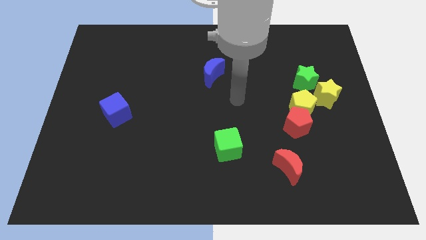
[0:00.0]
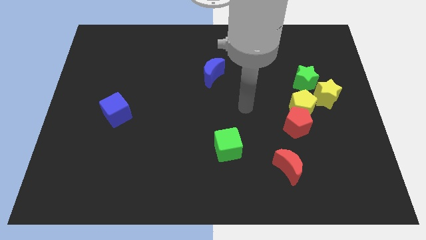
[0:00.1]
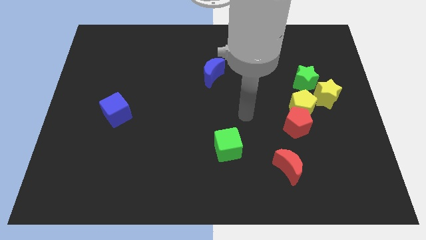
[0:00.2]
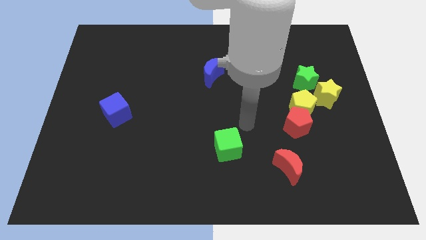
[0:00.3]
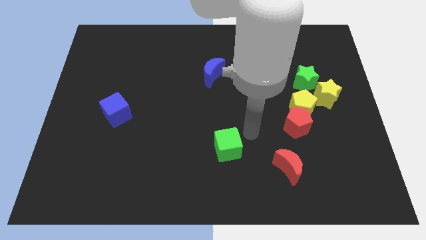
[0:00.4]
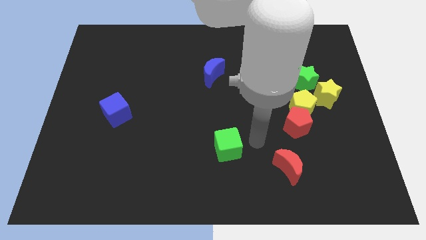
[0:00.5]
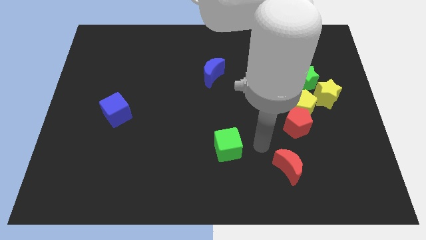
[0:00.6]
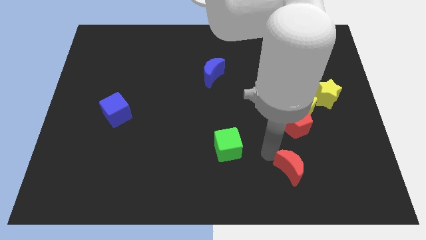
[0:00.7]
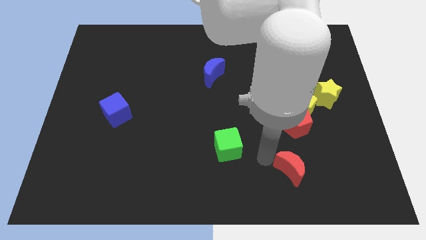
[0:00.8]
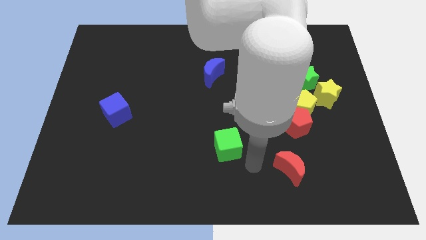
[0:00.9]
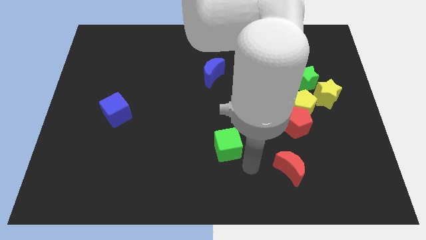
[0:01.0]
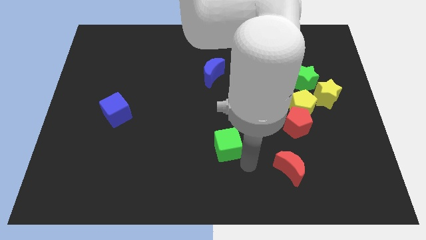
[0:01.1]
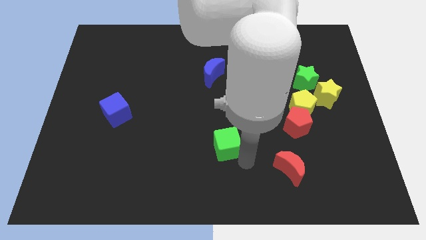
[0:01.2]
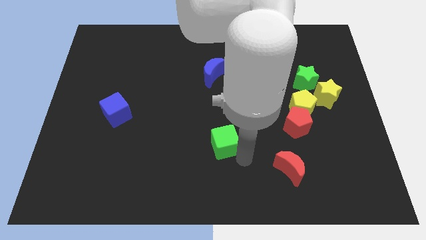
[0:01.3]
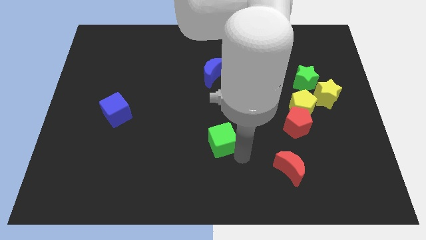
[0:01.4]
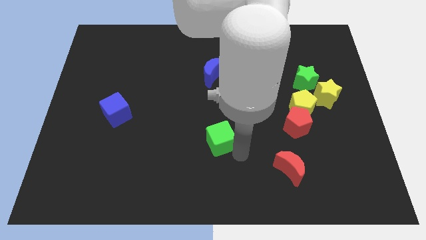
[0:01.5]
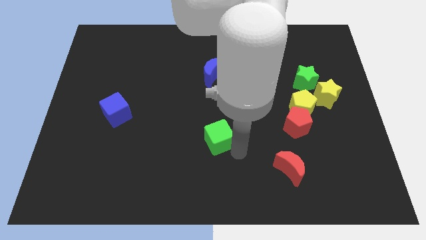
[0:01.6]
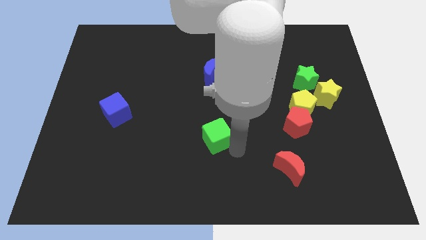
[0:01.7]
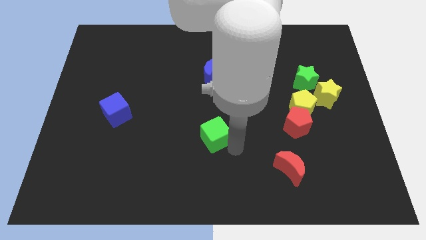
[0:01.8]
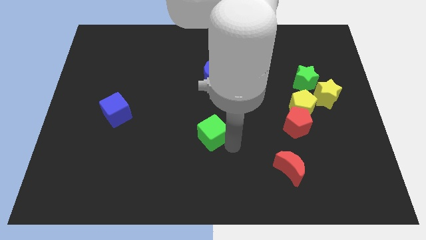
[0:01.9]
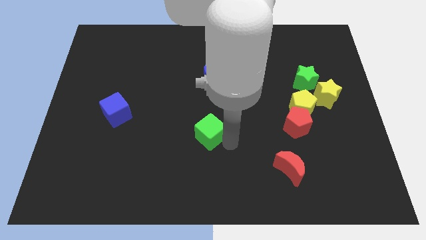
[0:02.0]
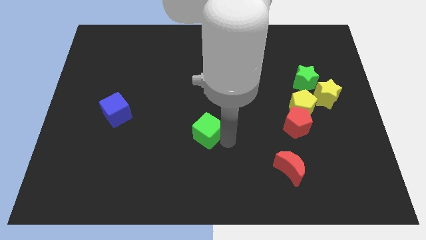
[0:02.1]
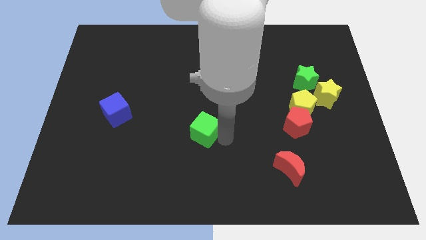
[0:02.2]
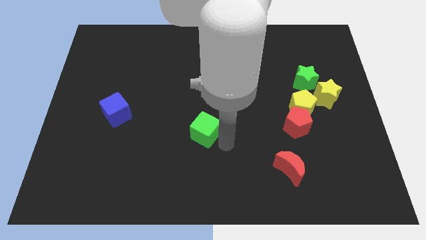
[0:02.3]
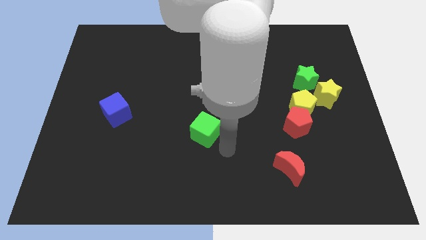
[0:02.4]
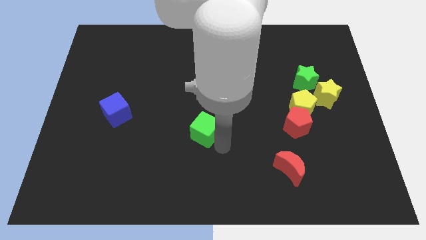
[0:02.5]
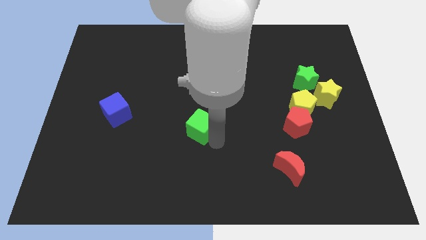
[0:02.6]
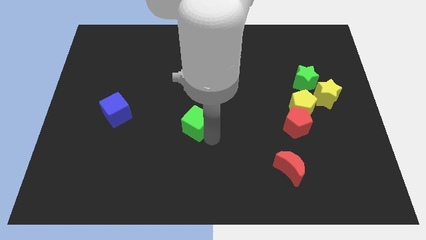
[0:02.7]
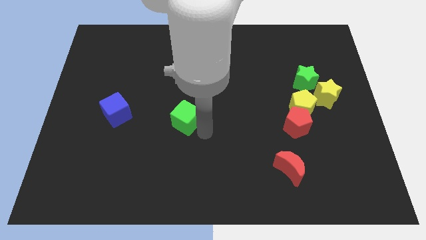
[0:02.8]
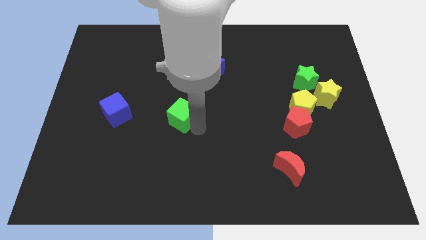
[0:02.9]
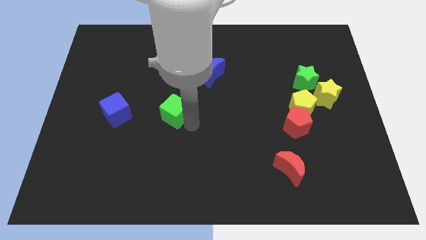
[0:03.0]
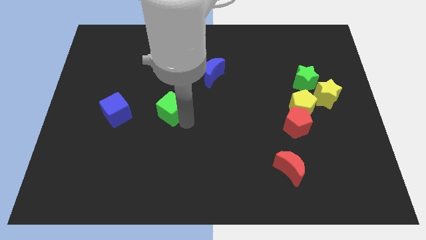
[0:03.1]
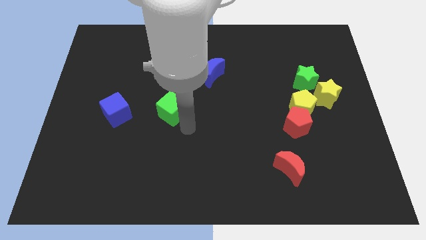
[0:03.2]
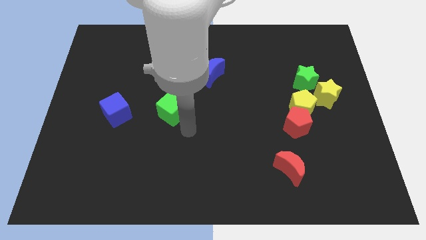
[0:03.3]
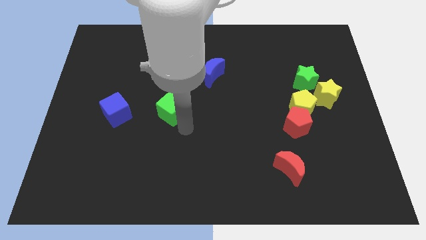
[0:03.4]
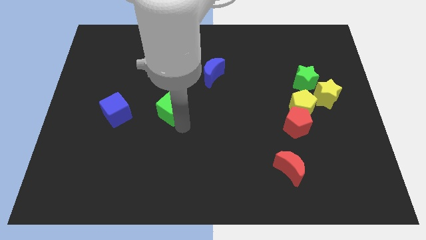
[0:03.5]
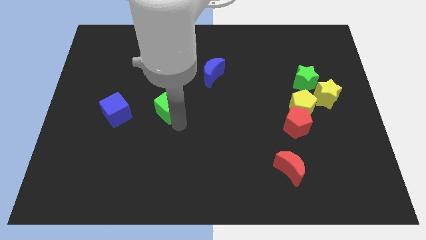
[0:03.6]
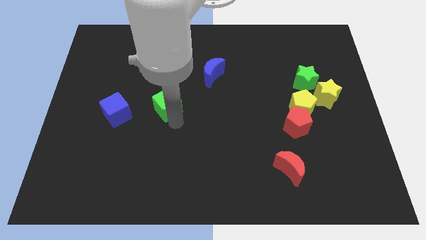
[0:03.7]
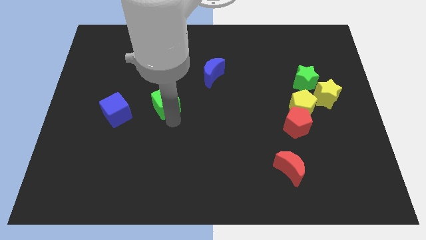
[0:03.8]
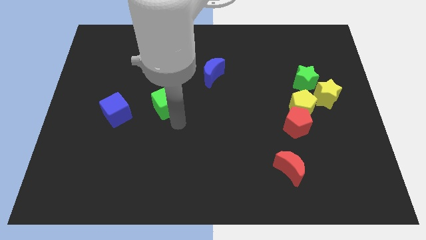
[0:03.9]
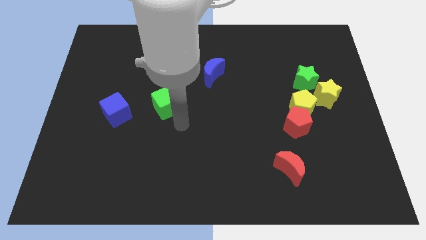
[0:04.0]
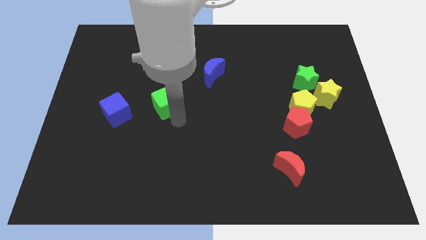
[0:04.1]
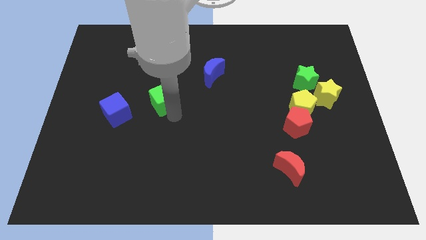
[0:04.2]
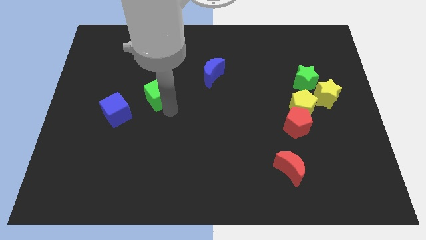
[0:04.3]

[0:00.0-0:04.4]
slide the green cube up and then left

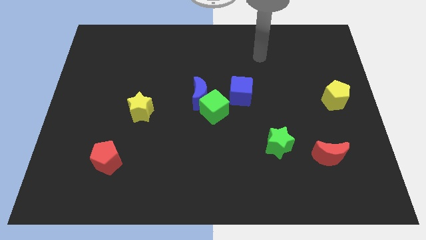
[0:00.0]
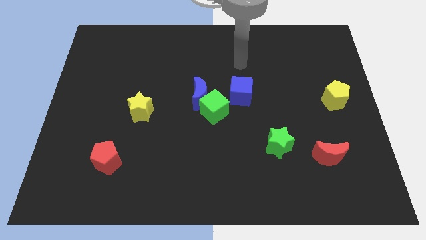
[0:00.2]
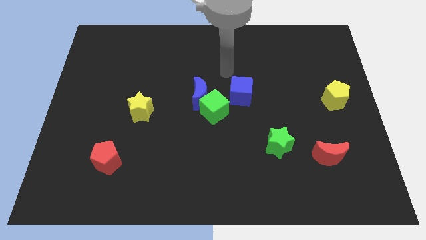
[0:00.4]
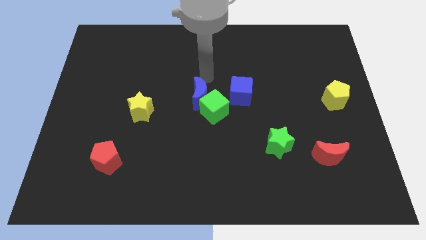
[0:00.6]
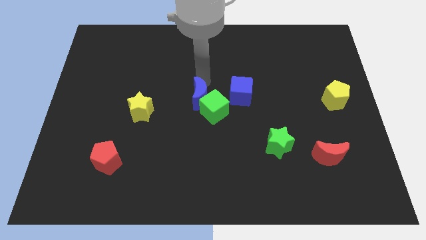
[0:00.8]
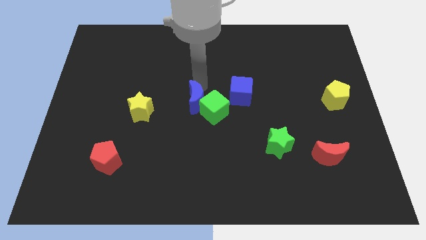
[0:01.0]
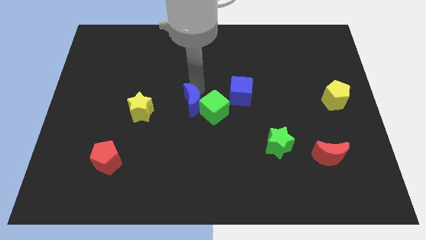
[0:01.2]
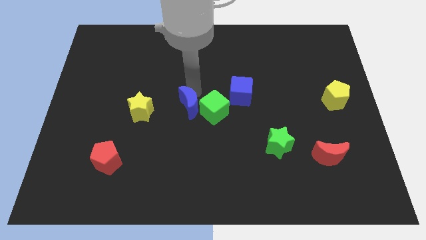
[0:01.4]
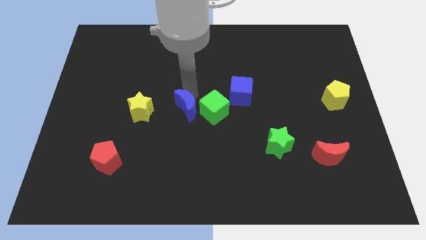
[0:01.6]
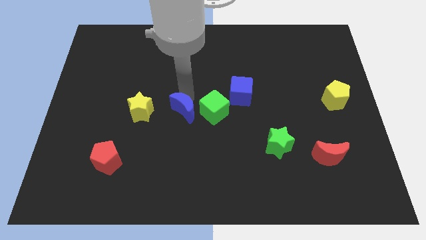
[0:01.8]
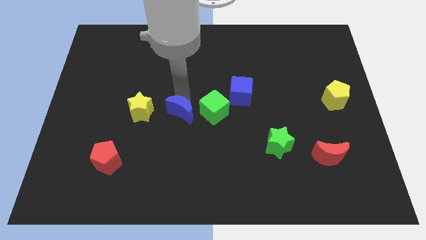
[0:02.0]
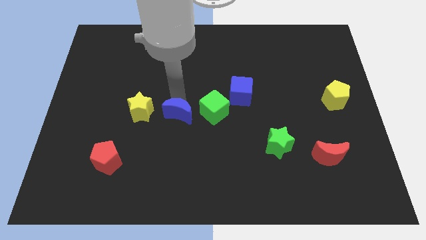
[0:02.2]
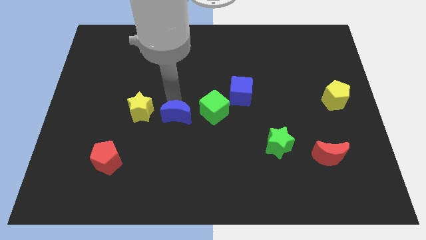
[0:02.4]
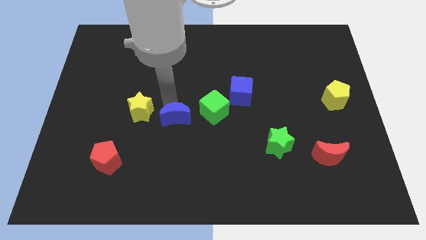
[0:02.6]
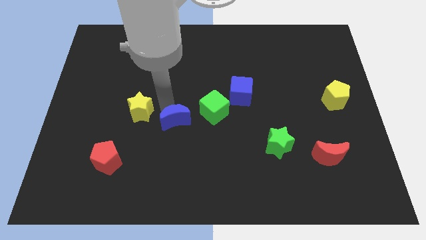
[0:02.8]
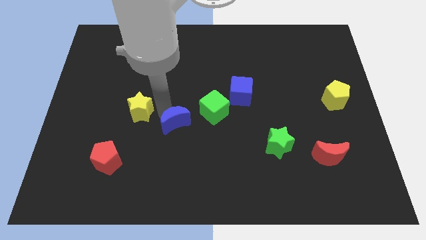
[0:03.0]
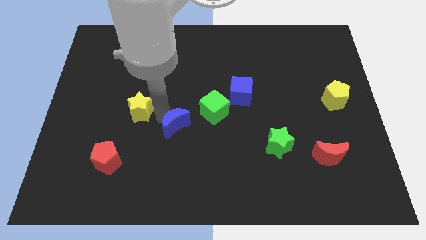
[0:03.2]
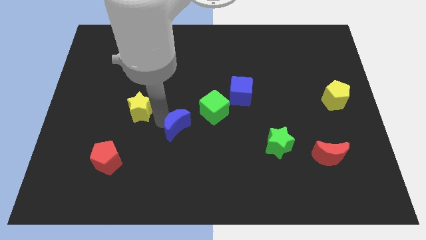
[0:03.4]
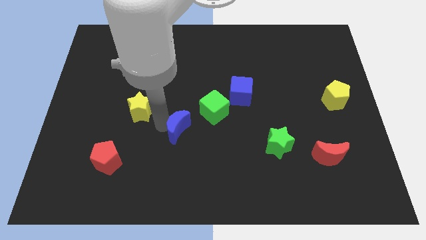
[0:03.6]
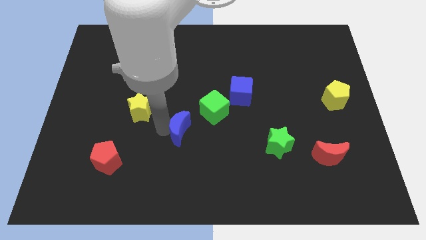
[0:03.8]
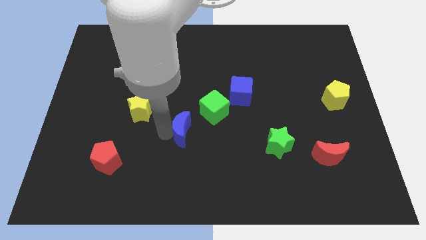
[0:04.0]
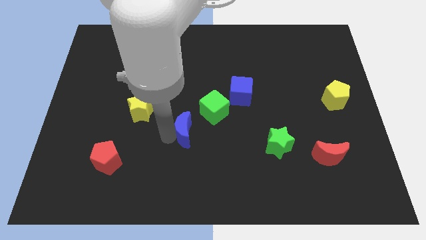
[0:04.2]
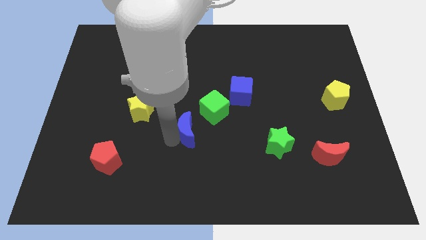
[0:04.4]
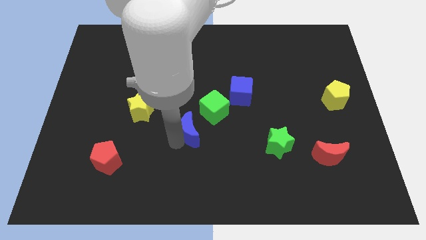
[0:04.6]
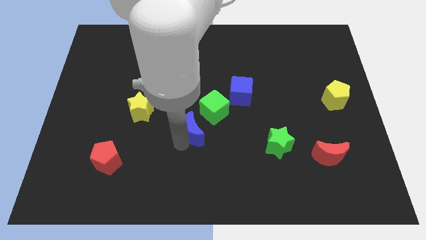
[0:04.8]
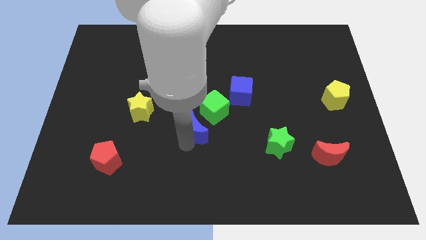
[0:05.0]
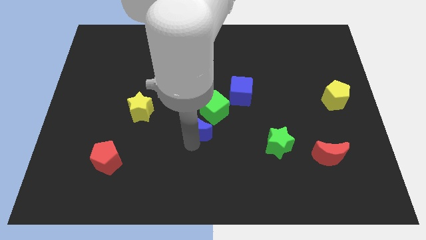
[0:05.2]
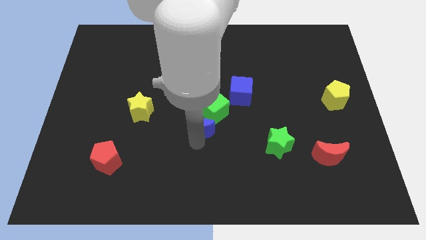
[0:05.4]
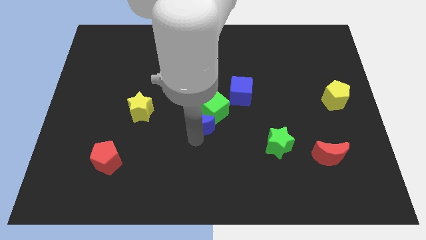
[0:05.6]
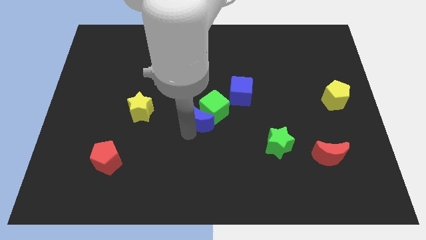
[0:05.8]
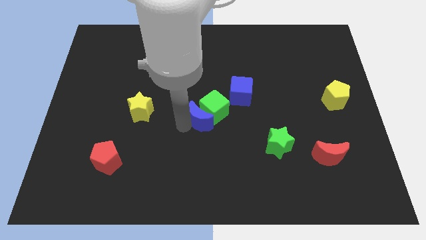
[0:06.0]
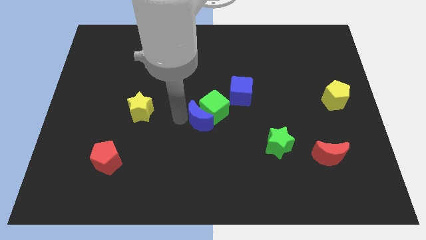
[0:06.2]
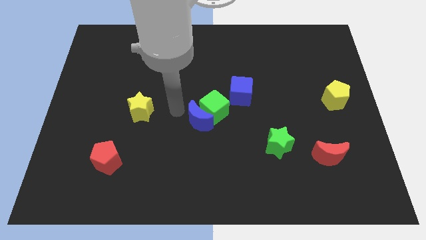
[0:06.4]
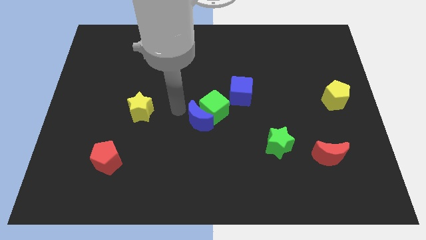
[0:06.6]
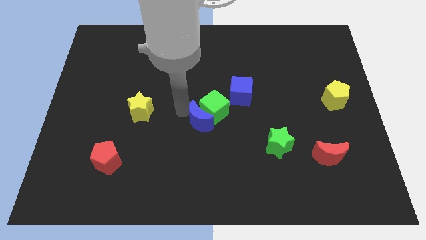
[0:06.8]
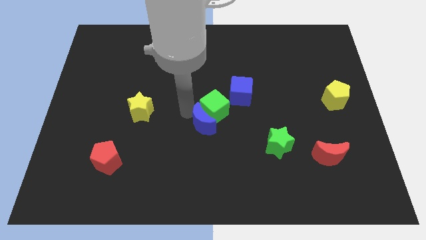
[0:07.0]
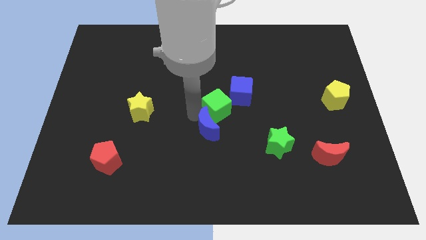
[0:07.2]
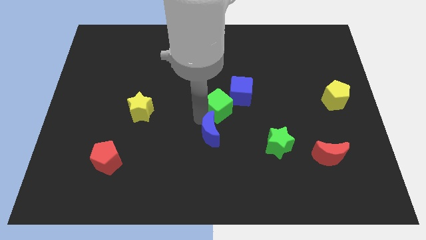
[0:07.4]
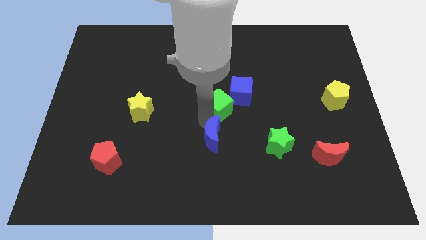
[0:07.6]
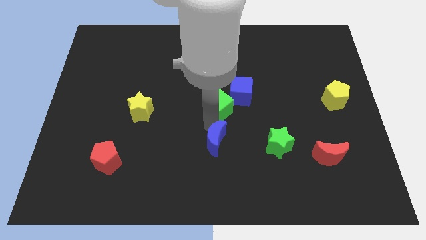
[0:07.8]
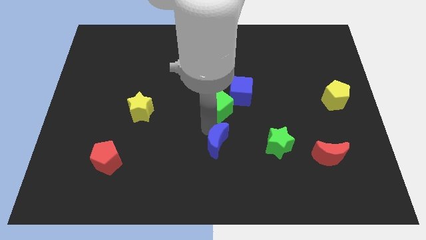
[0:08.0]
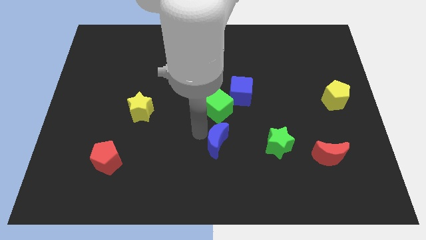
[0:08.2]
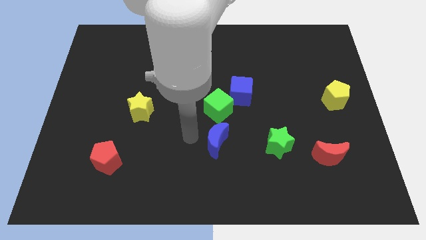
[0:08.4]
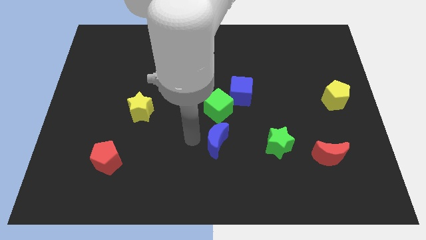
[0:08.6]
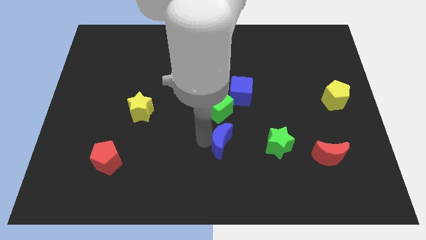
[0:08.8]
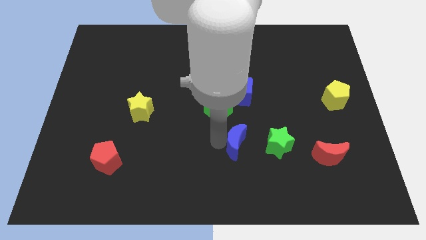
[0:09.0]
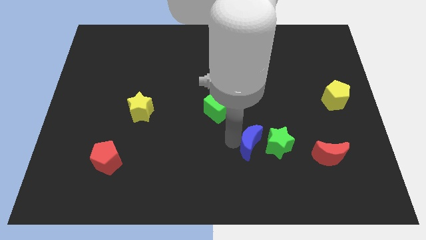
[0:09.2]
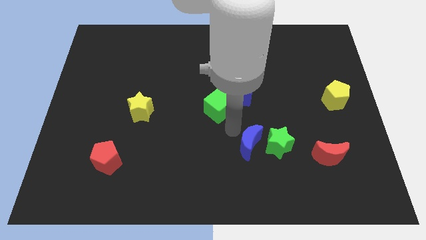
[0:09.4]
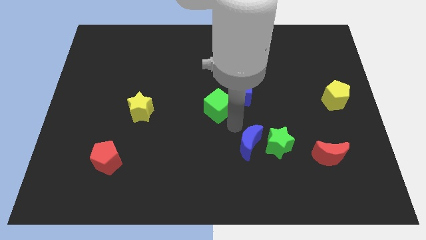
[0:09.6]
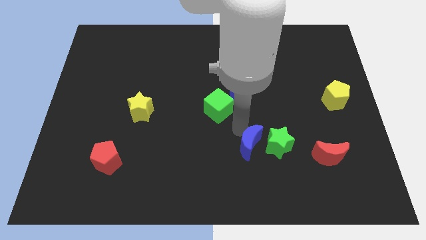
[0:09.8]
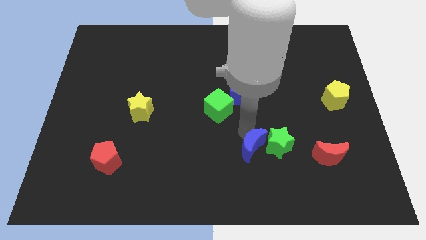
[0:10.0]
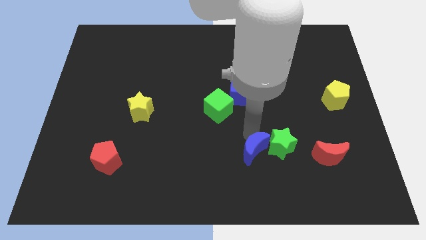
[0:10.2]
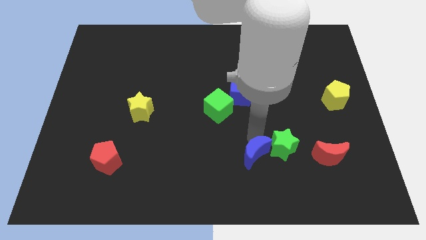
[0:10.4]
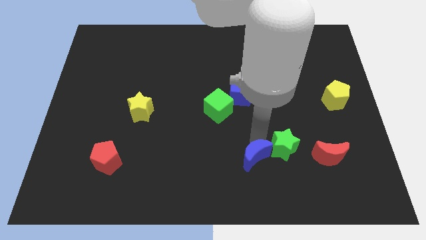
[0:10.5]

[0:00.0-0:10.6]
move the blue moon diagonally down and to the right
